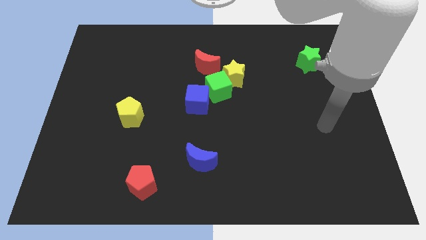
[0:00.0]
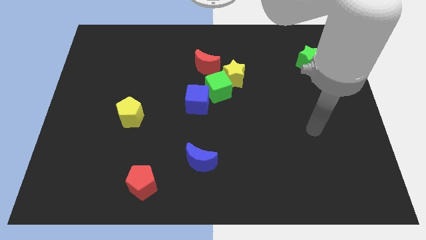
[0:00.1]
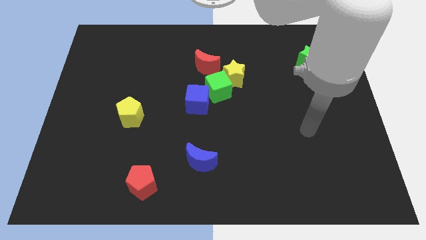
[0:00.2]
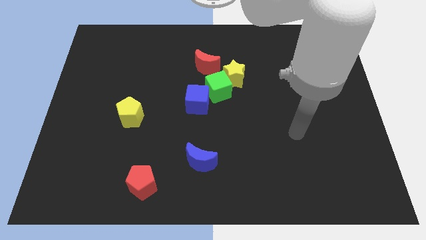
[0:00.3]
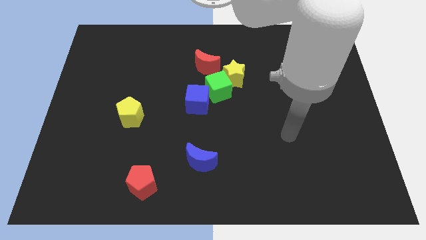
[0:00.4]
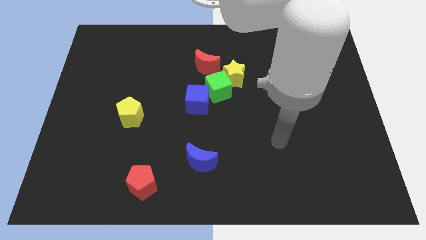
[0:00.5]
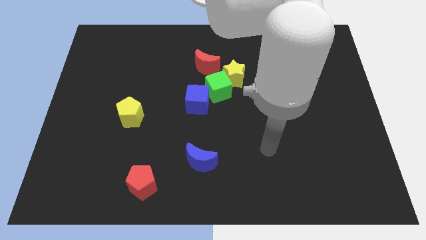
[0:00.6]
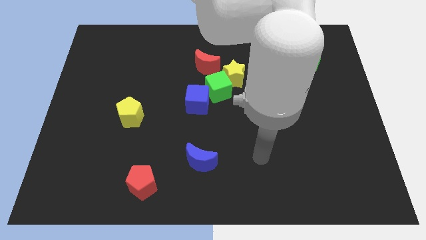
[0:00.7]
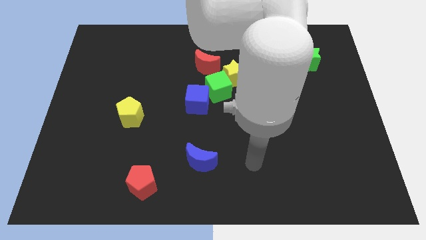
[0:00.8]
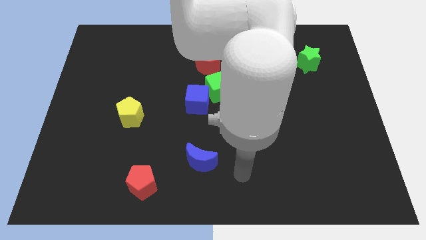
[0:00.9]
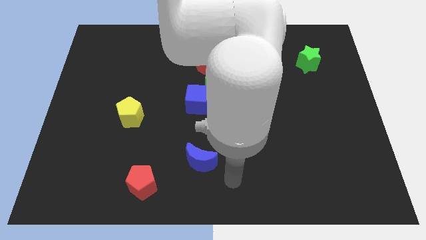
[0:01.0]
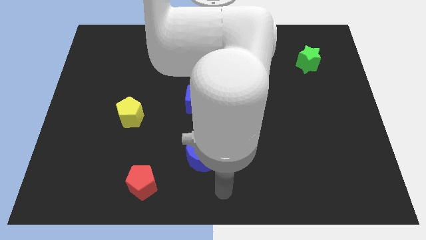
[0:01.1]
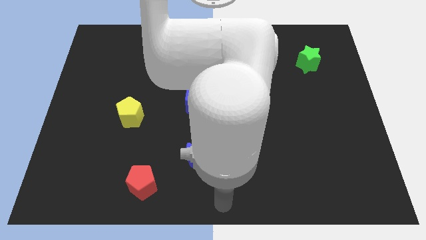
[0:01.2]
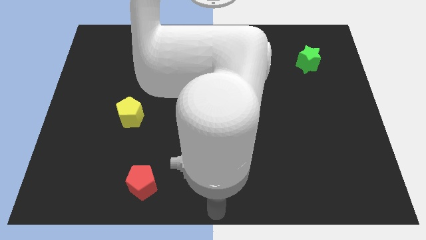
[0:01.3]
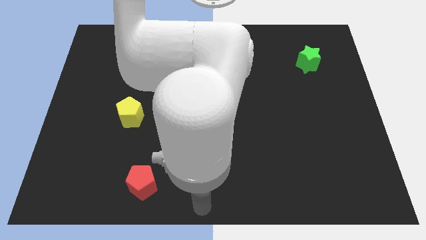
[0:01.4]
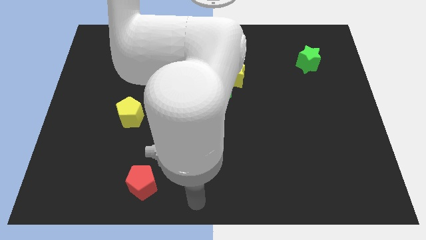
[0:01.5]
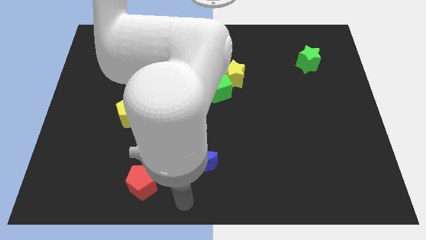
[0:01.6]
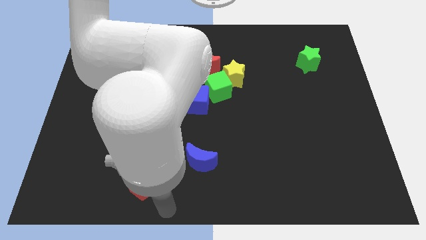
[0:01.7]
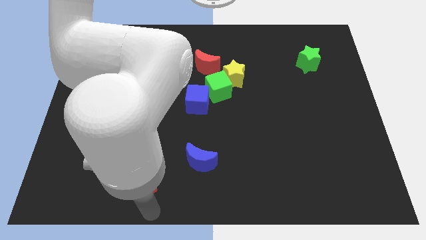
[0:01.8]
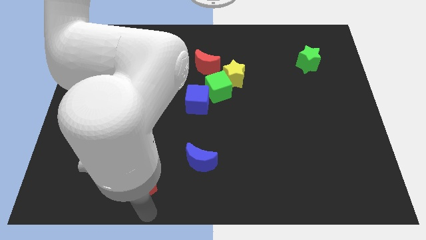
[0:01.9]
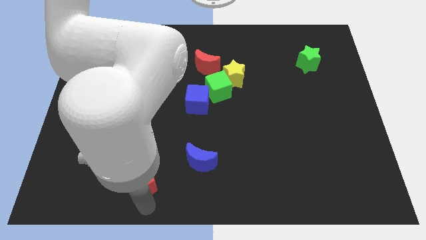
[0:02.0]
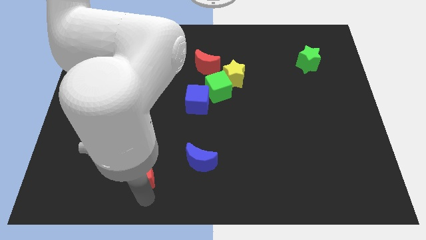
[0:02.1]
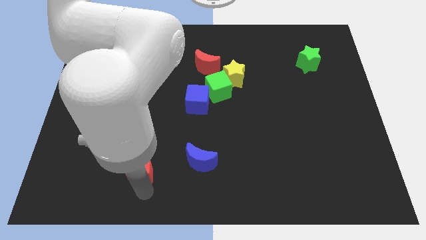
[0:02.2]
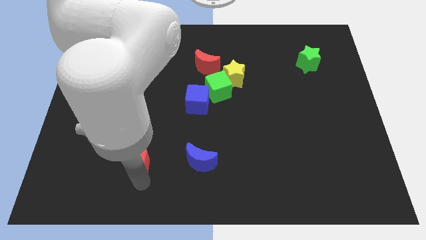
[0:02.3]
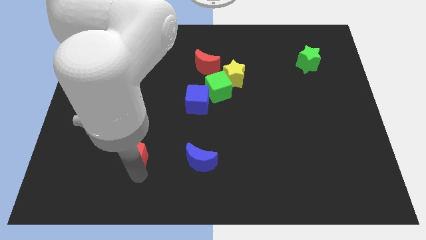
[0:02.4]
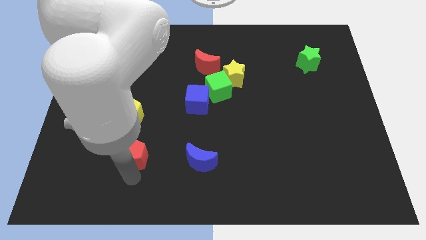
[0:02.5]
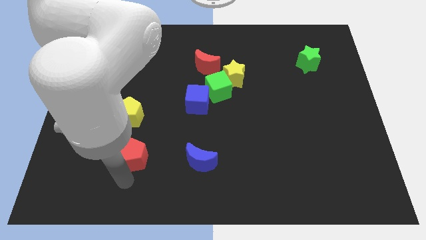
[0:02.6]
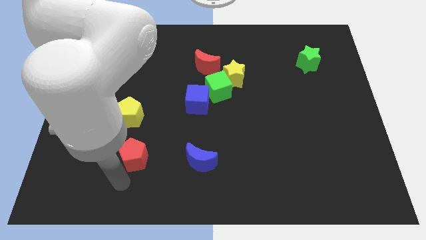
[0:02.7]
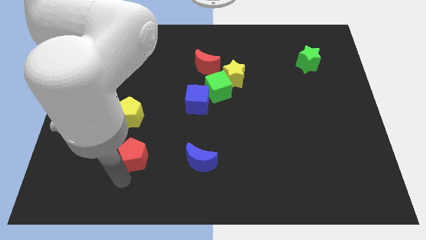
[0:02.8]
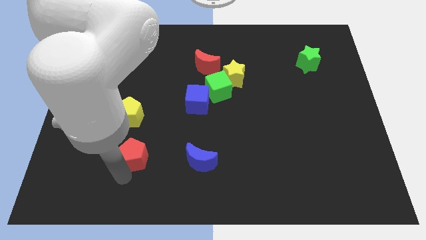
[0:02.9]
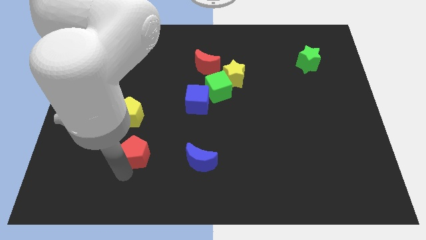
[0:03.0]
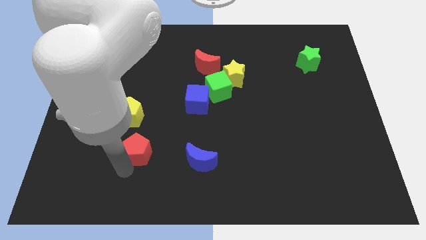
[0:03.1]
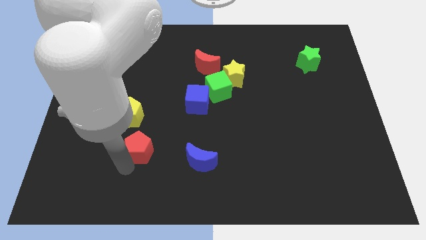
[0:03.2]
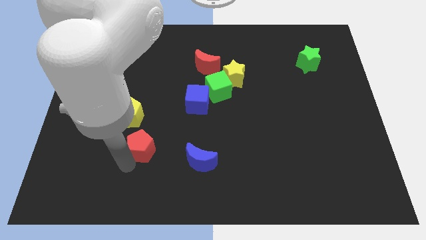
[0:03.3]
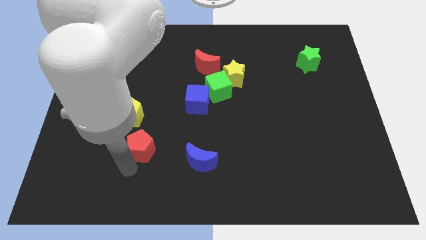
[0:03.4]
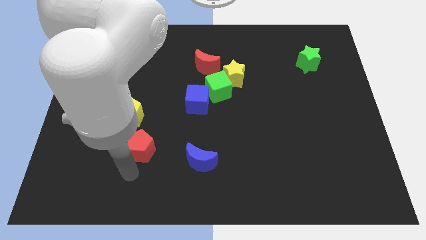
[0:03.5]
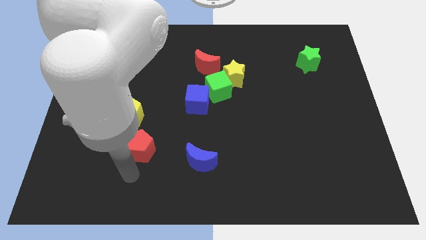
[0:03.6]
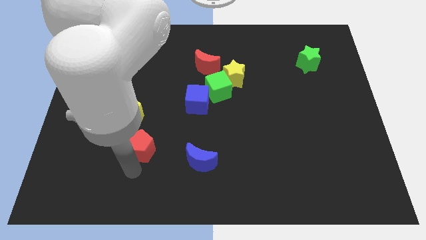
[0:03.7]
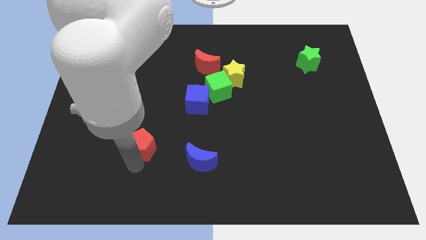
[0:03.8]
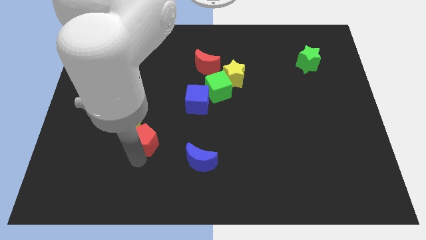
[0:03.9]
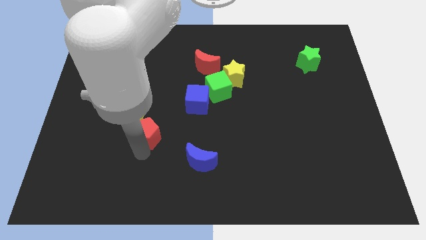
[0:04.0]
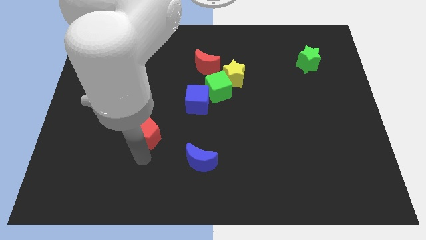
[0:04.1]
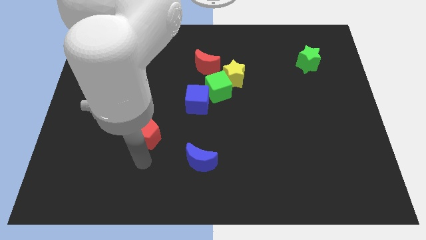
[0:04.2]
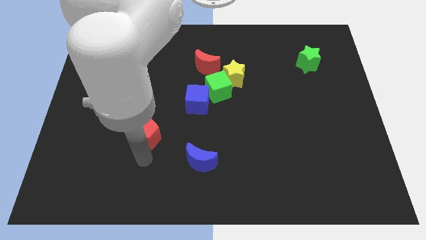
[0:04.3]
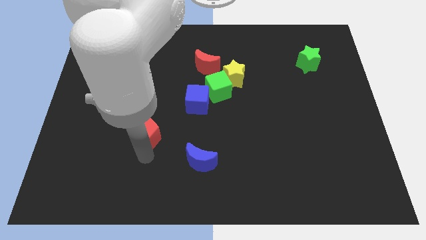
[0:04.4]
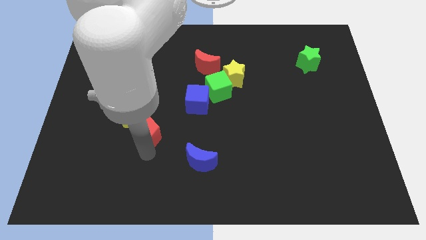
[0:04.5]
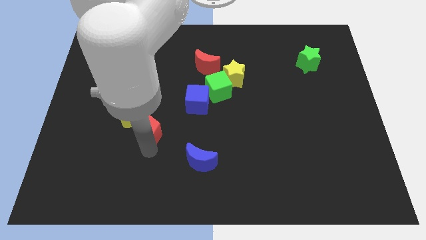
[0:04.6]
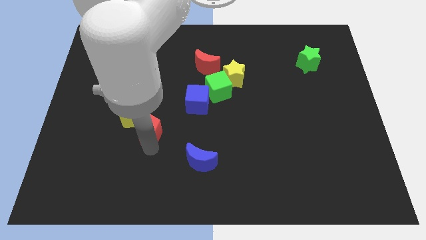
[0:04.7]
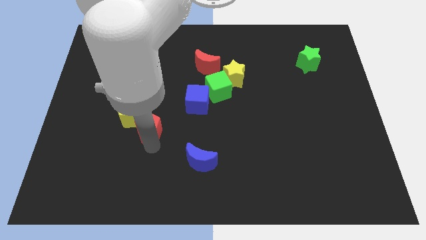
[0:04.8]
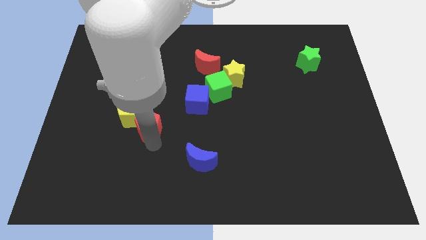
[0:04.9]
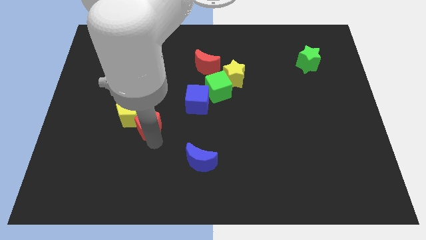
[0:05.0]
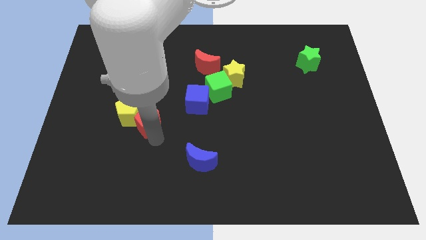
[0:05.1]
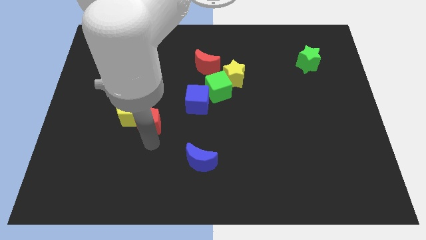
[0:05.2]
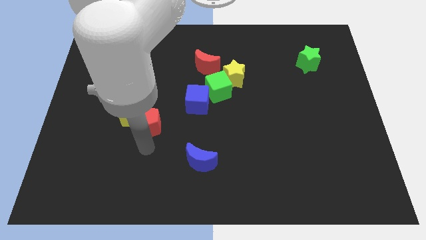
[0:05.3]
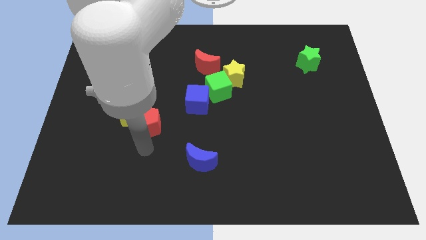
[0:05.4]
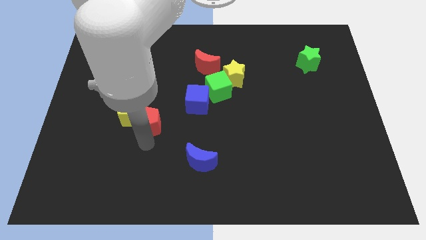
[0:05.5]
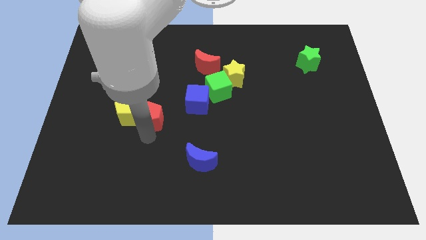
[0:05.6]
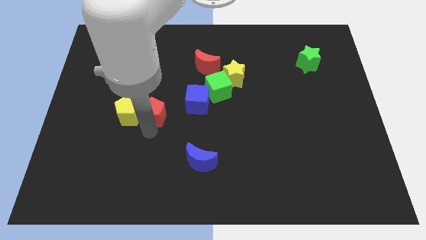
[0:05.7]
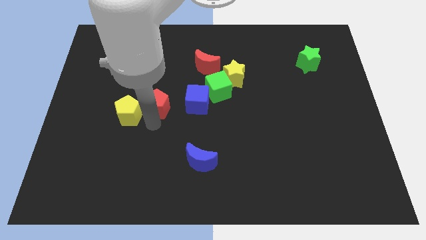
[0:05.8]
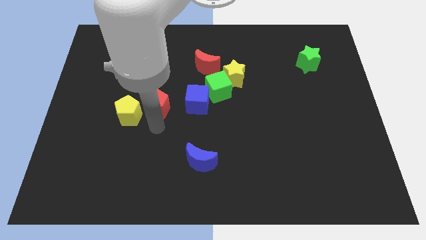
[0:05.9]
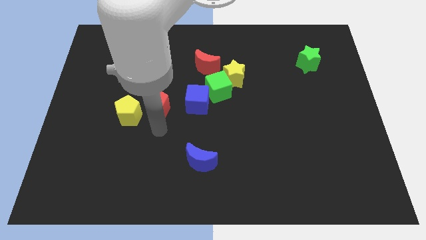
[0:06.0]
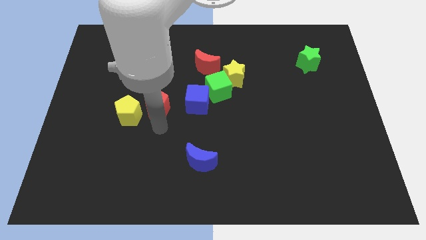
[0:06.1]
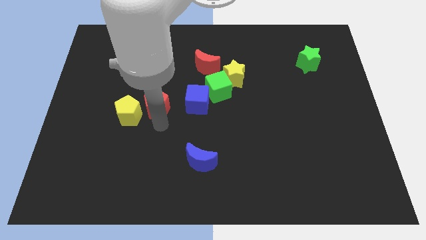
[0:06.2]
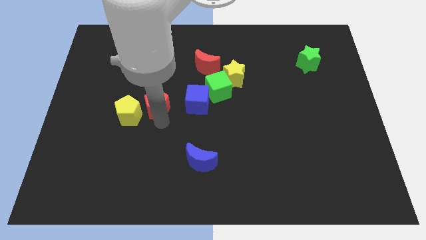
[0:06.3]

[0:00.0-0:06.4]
push the red pentagon upwards

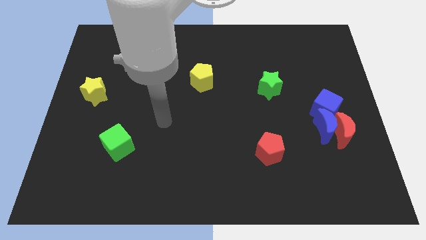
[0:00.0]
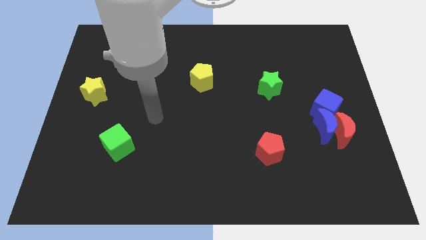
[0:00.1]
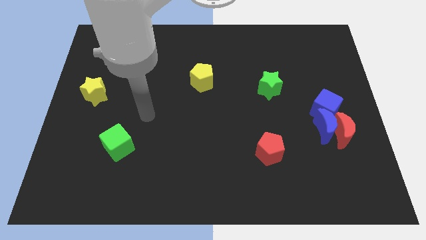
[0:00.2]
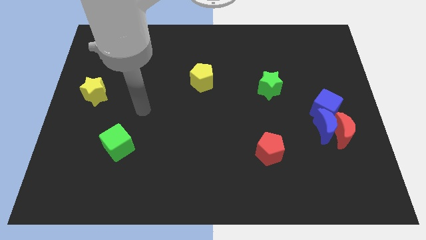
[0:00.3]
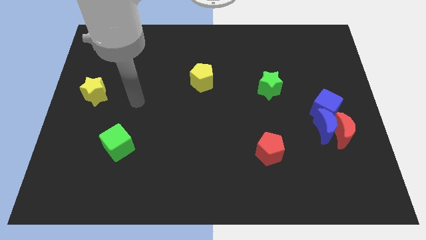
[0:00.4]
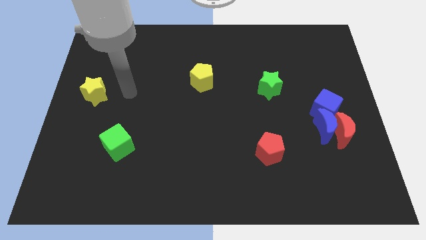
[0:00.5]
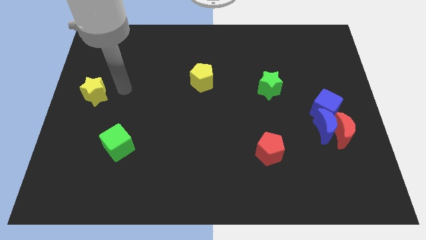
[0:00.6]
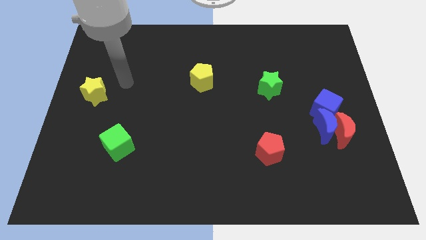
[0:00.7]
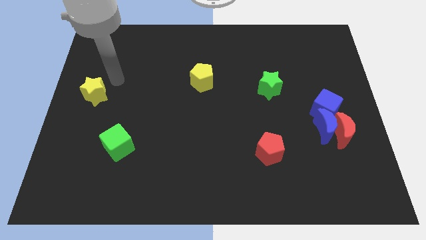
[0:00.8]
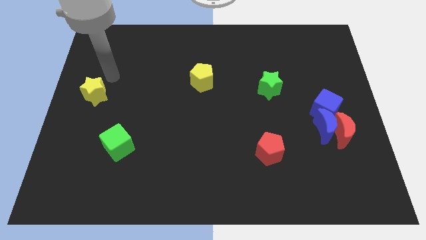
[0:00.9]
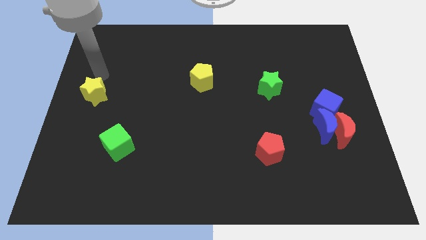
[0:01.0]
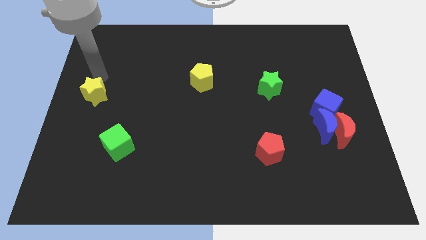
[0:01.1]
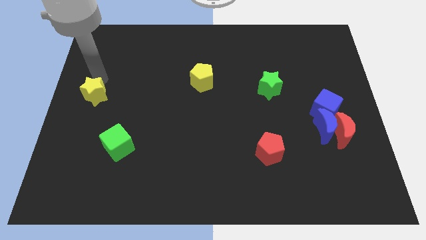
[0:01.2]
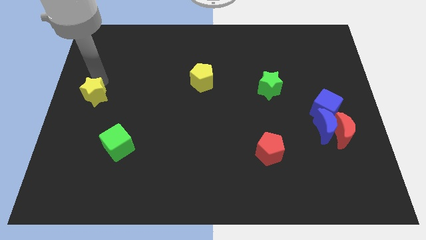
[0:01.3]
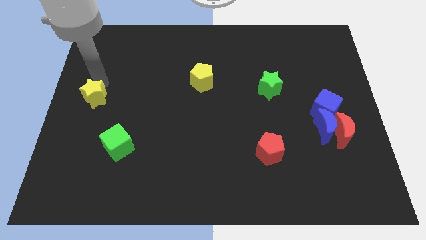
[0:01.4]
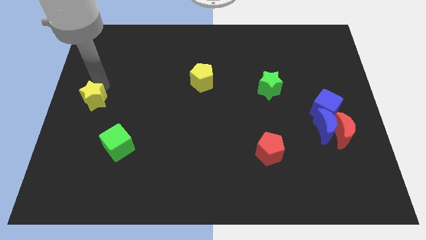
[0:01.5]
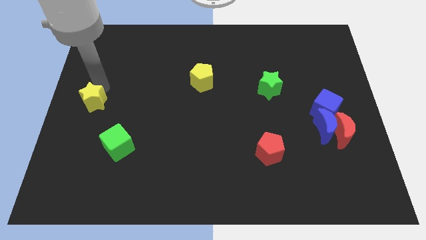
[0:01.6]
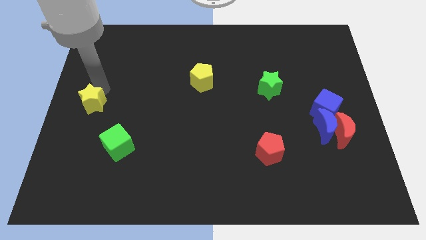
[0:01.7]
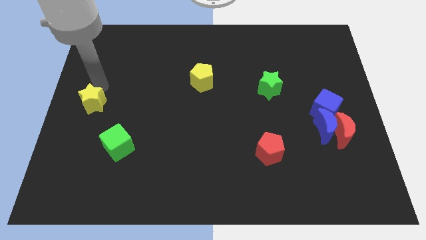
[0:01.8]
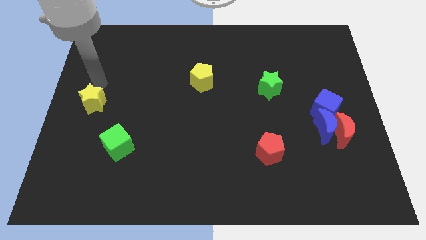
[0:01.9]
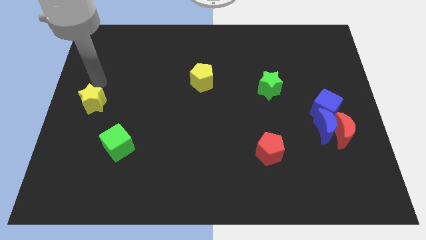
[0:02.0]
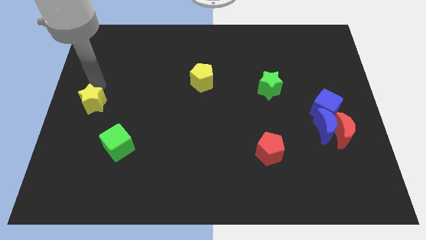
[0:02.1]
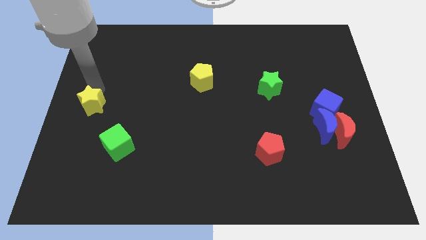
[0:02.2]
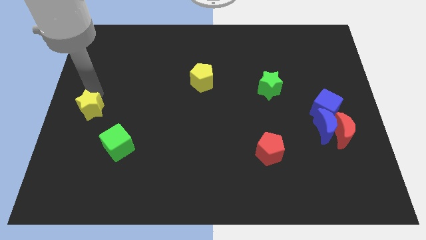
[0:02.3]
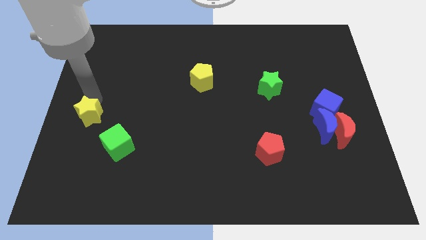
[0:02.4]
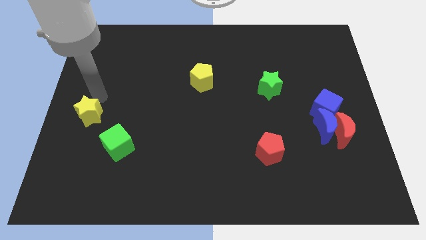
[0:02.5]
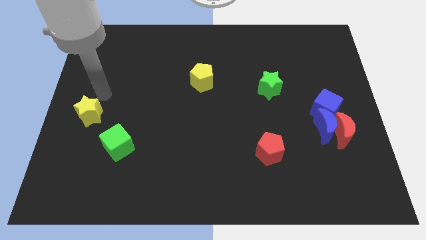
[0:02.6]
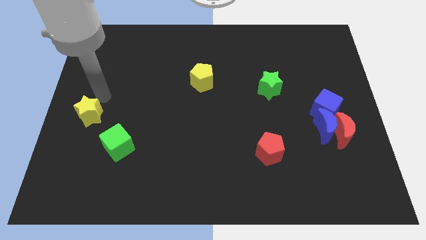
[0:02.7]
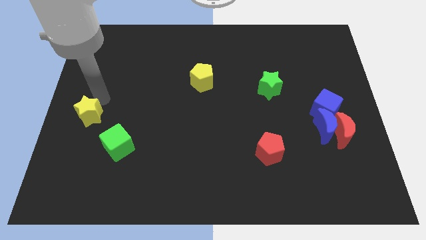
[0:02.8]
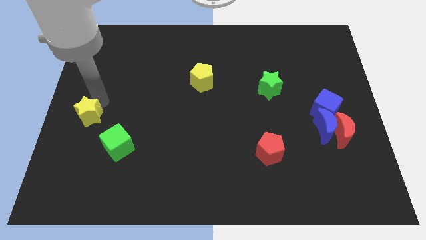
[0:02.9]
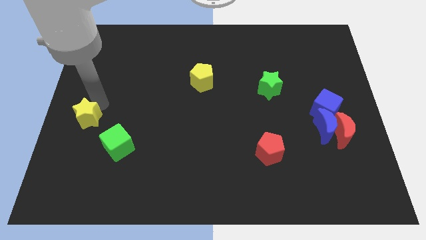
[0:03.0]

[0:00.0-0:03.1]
push the yellow star downwards a little bit
